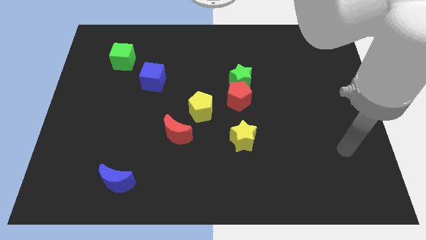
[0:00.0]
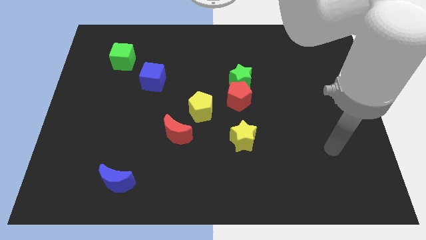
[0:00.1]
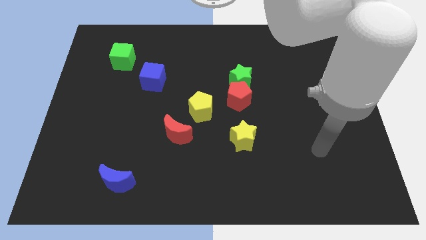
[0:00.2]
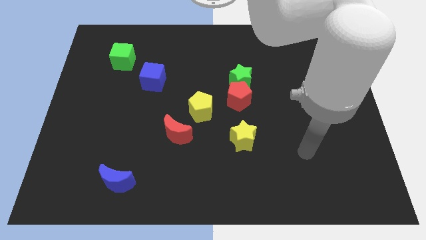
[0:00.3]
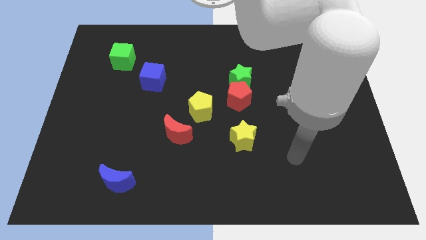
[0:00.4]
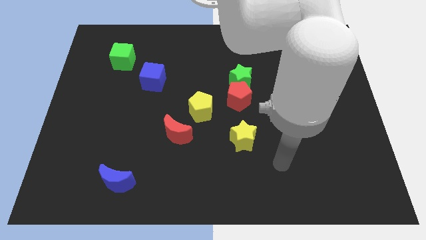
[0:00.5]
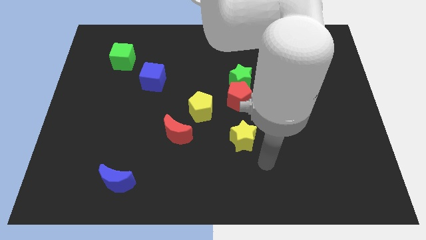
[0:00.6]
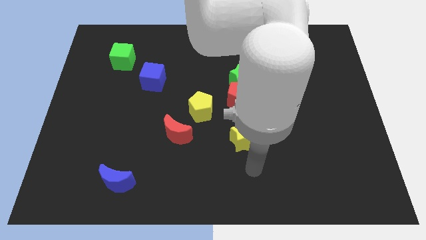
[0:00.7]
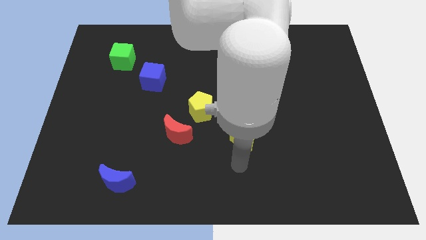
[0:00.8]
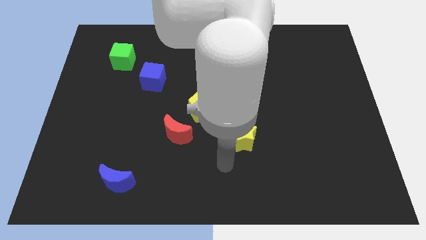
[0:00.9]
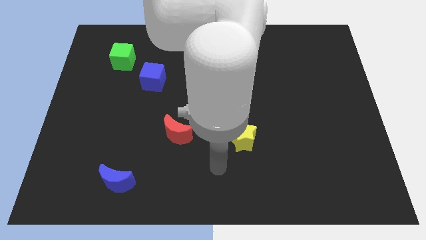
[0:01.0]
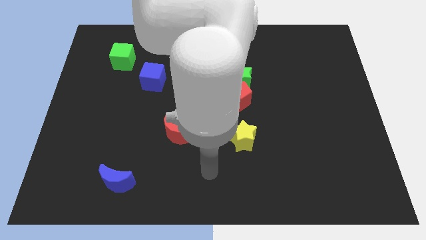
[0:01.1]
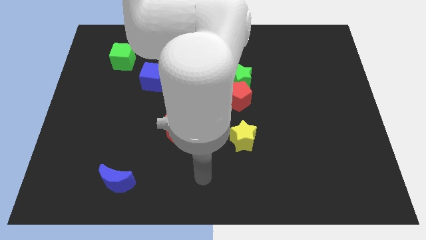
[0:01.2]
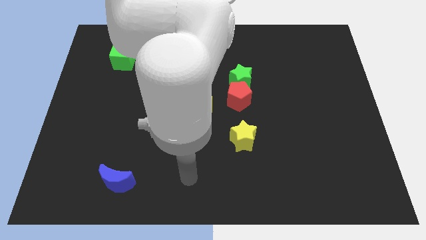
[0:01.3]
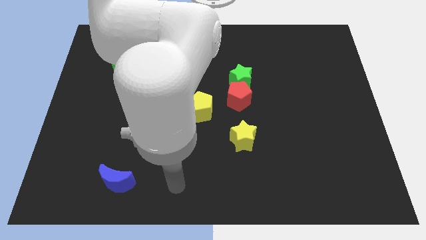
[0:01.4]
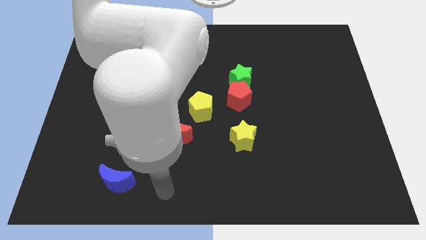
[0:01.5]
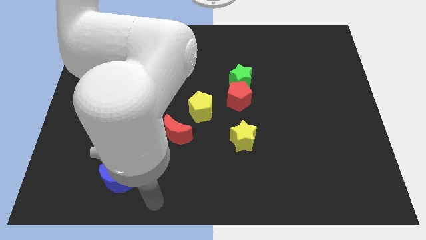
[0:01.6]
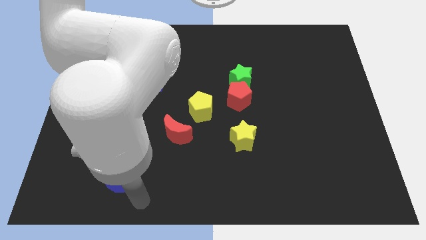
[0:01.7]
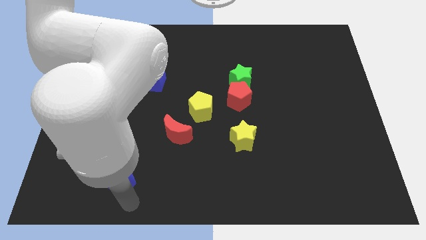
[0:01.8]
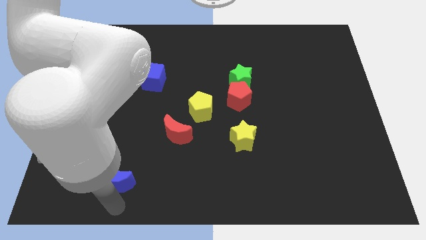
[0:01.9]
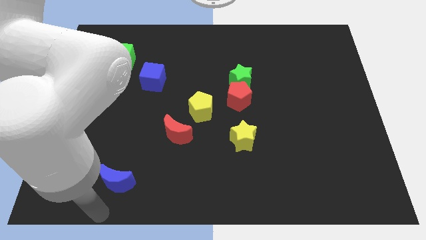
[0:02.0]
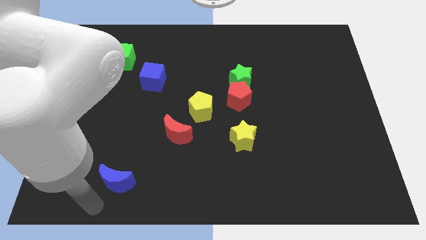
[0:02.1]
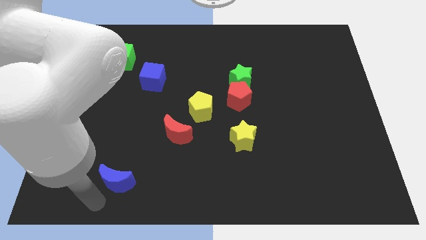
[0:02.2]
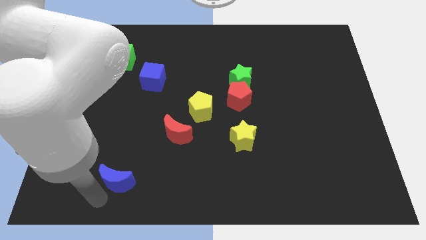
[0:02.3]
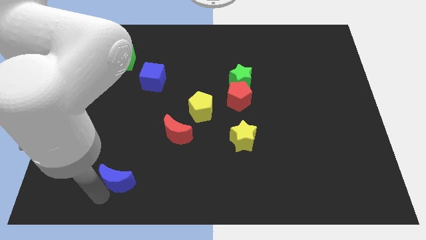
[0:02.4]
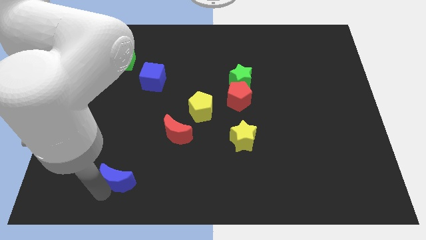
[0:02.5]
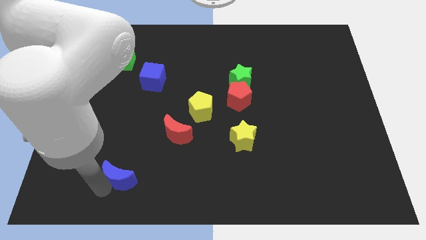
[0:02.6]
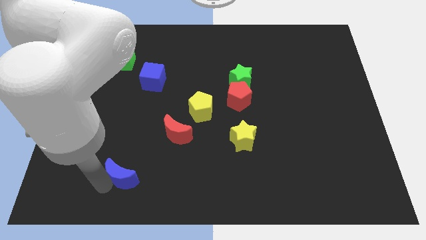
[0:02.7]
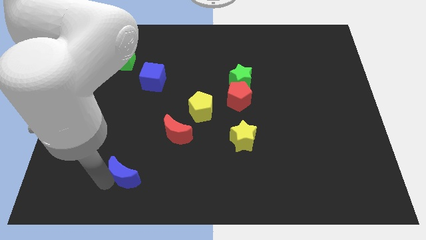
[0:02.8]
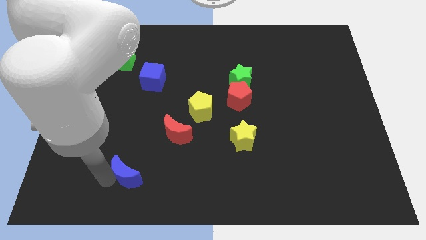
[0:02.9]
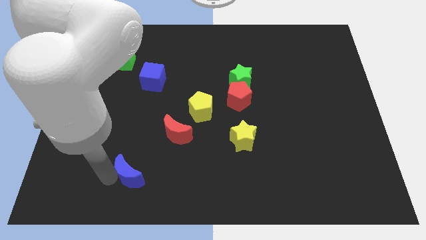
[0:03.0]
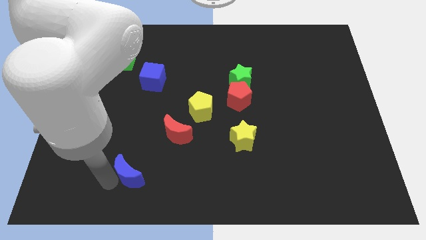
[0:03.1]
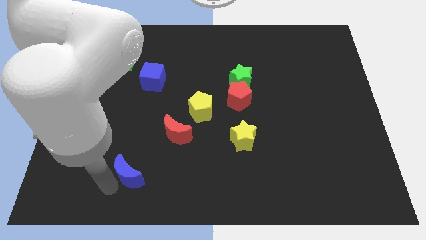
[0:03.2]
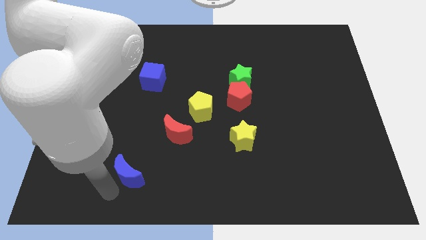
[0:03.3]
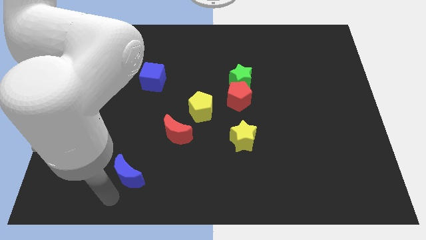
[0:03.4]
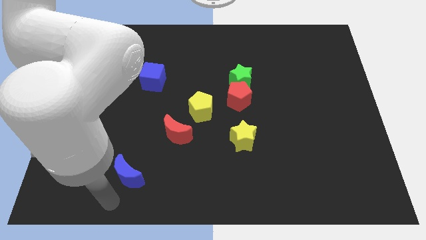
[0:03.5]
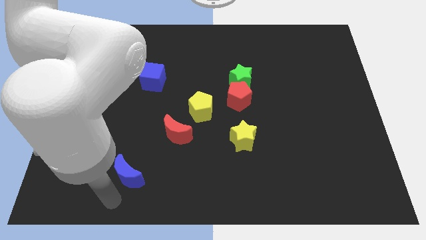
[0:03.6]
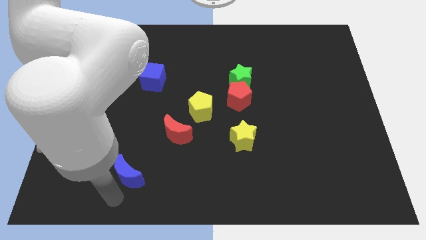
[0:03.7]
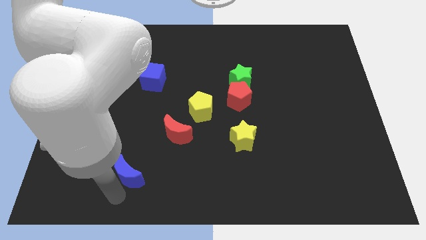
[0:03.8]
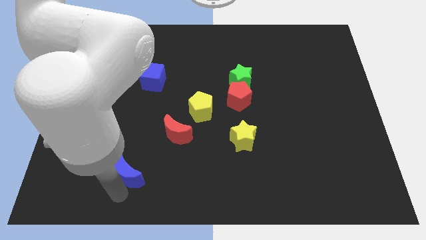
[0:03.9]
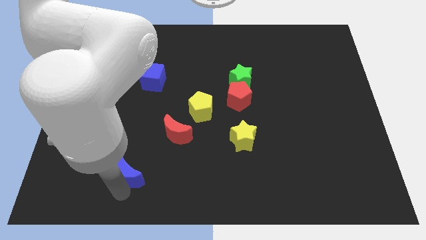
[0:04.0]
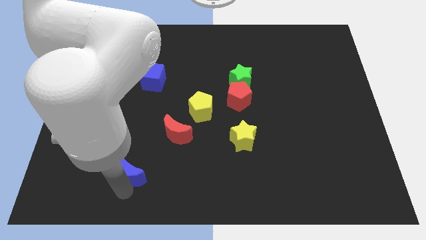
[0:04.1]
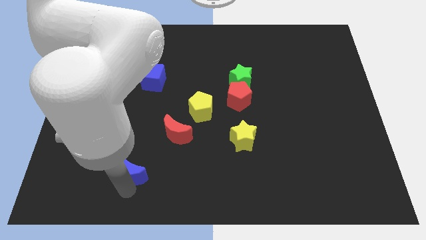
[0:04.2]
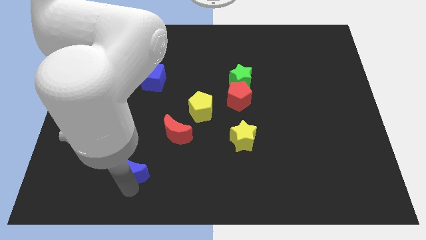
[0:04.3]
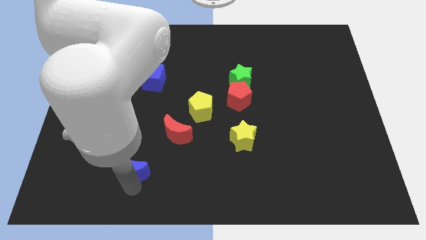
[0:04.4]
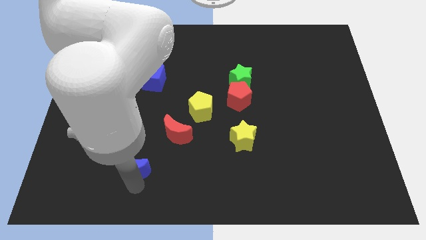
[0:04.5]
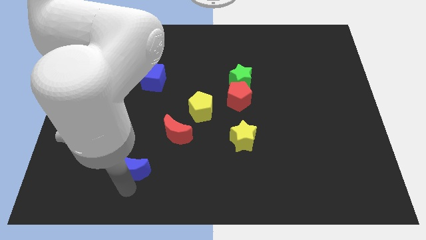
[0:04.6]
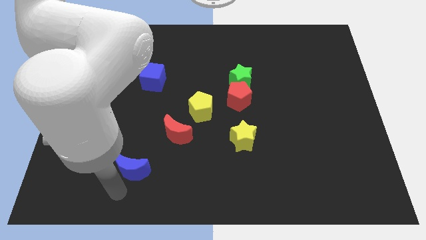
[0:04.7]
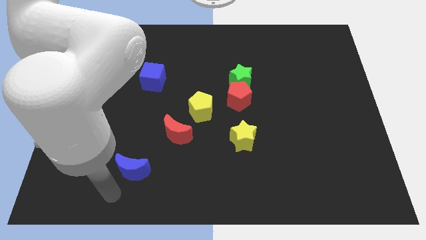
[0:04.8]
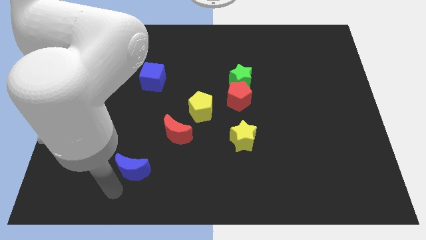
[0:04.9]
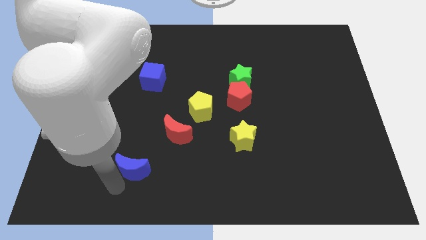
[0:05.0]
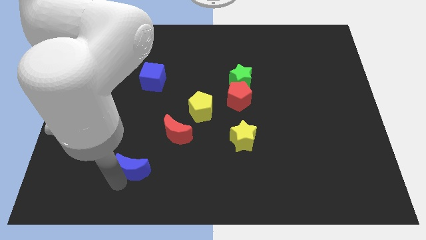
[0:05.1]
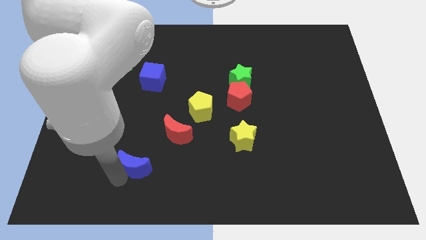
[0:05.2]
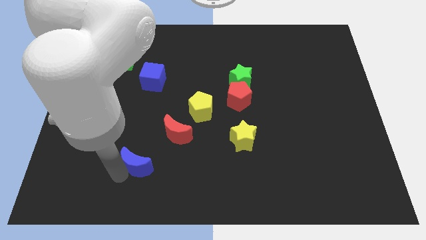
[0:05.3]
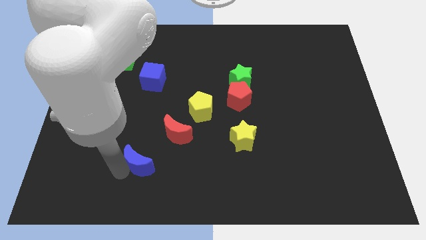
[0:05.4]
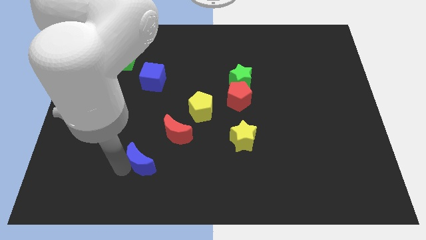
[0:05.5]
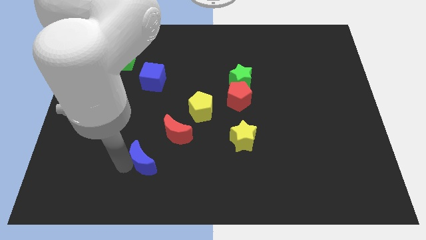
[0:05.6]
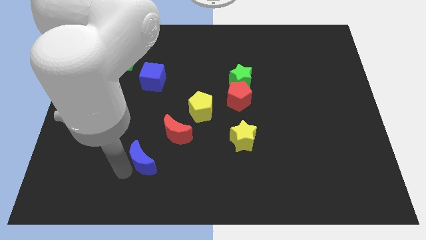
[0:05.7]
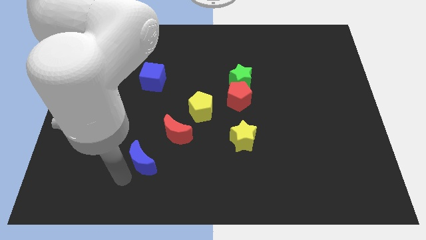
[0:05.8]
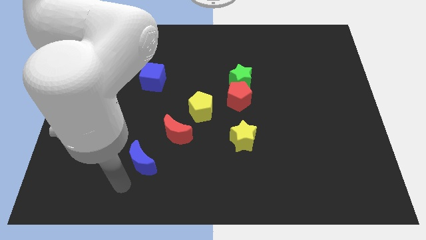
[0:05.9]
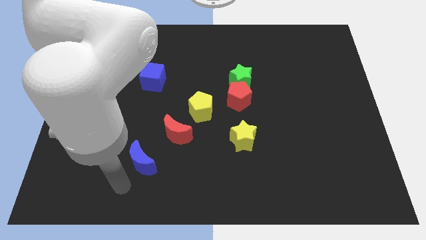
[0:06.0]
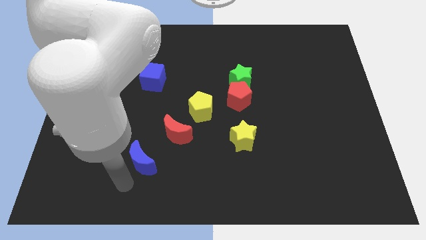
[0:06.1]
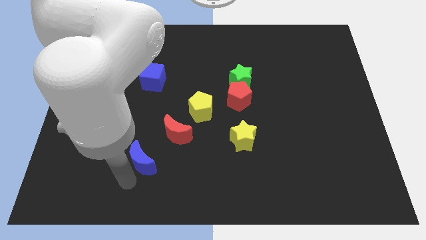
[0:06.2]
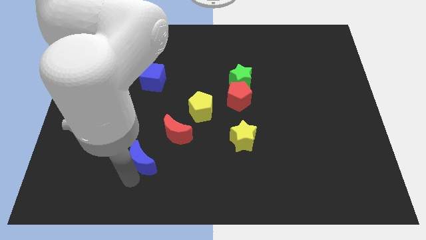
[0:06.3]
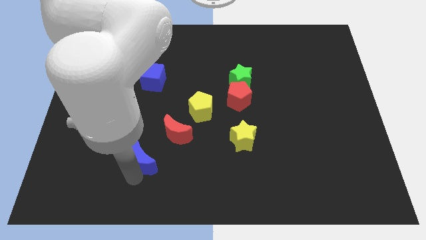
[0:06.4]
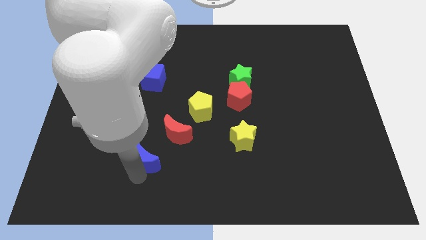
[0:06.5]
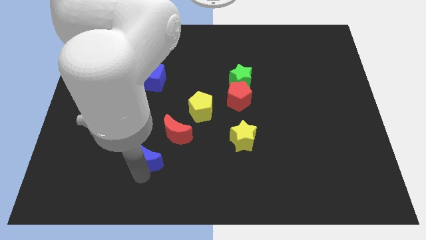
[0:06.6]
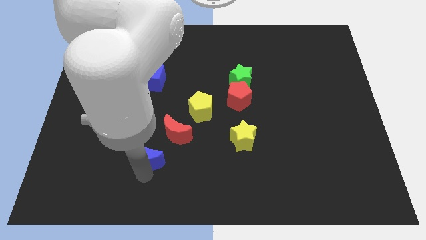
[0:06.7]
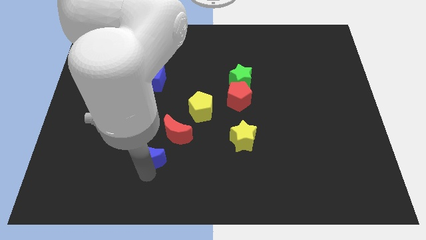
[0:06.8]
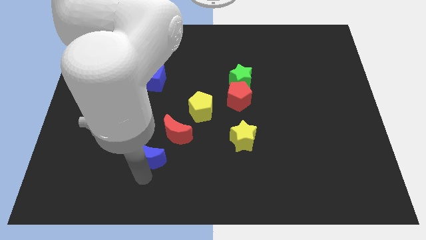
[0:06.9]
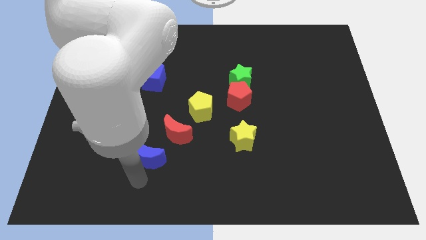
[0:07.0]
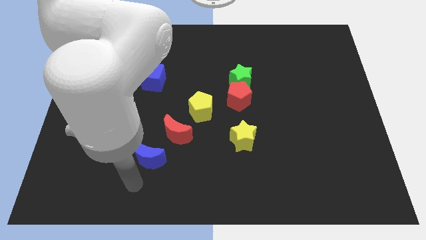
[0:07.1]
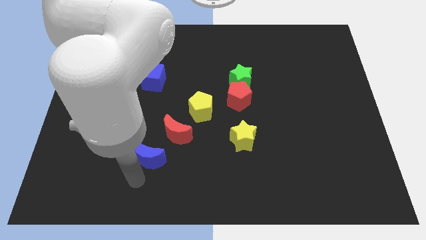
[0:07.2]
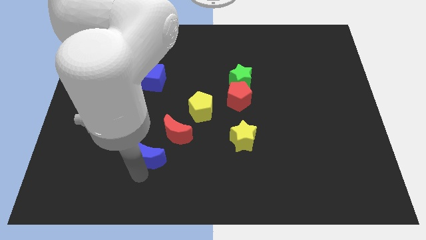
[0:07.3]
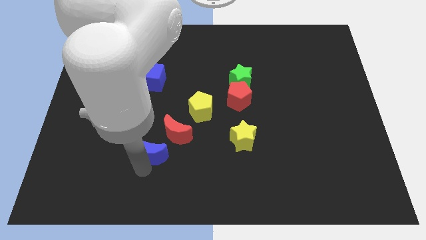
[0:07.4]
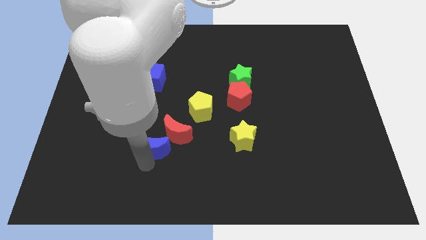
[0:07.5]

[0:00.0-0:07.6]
push the blue moon close to the red moon

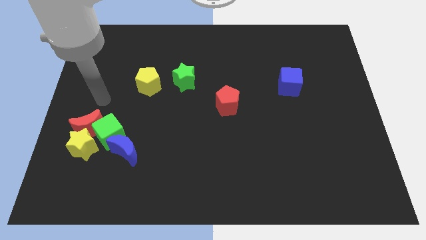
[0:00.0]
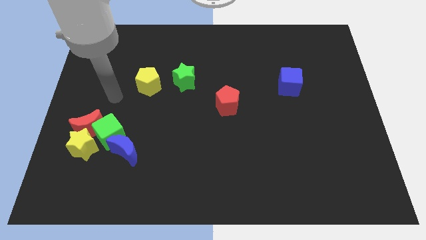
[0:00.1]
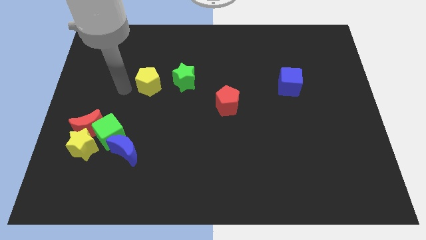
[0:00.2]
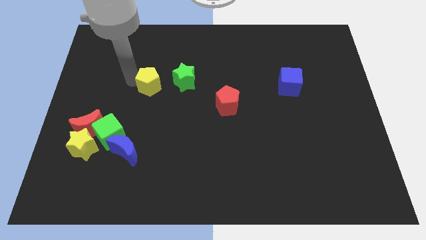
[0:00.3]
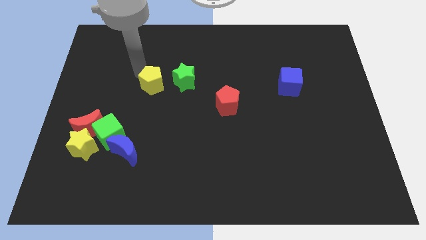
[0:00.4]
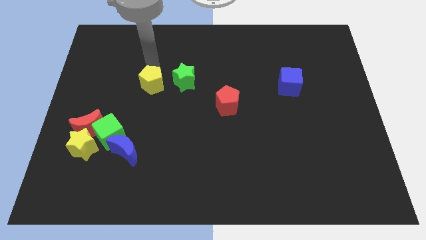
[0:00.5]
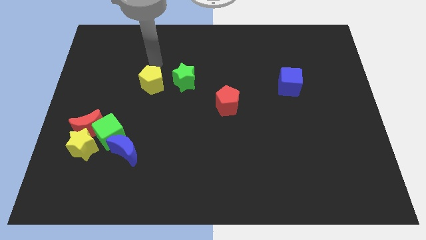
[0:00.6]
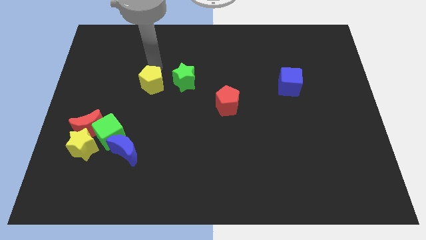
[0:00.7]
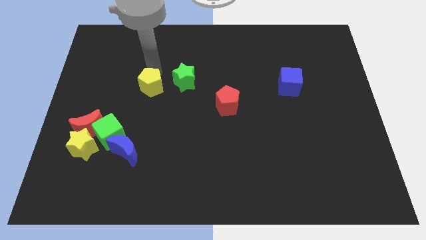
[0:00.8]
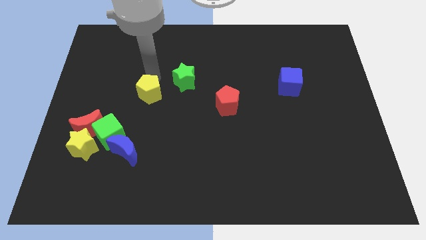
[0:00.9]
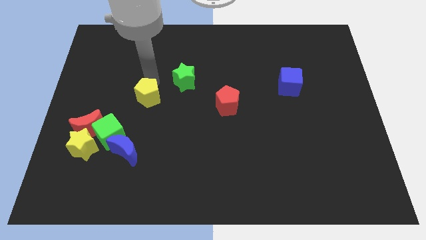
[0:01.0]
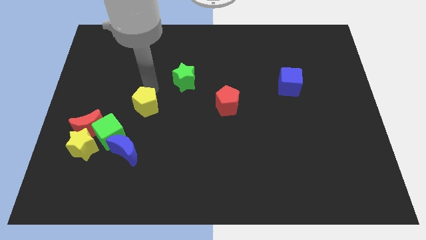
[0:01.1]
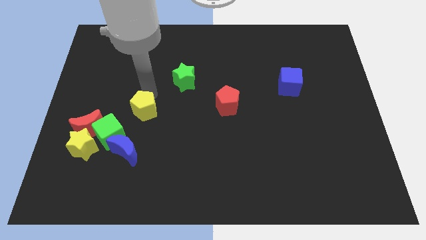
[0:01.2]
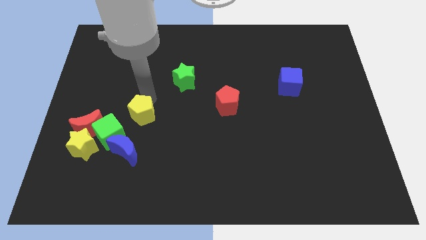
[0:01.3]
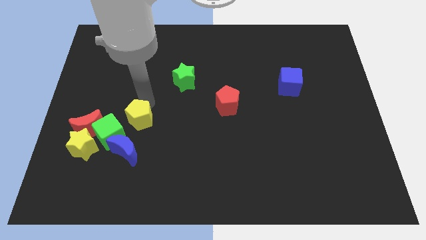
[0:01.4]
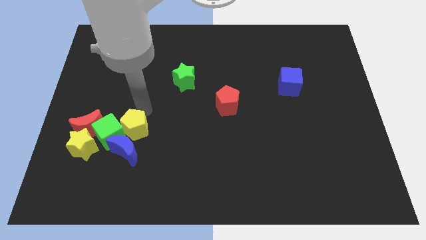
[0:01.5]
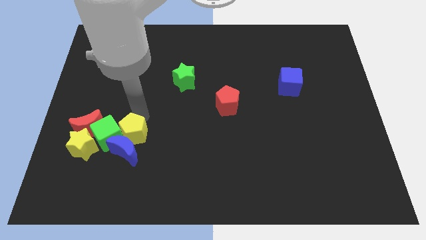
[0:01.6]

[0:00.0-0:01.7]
slide the yellow pentagon towards the blue moon
